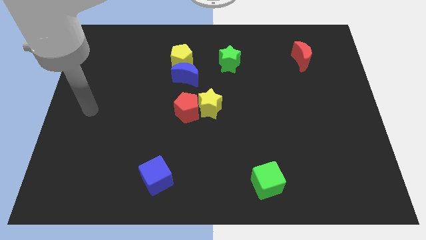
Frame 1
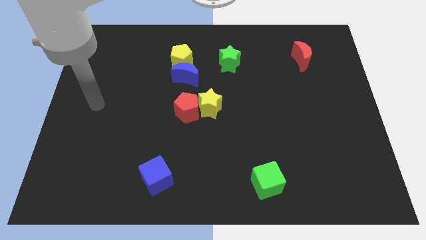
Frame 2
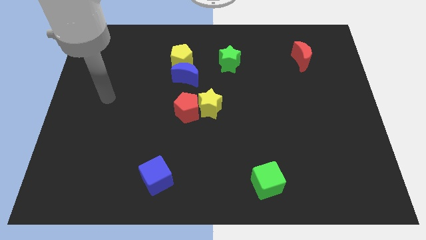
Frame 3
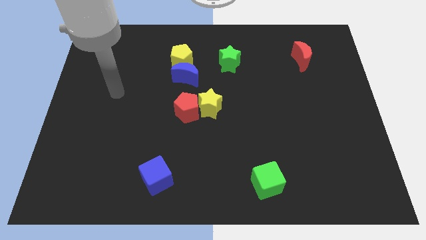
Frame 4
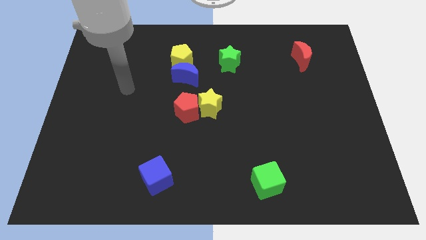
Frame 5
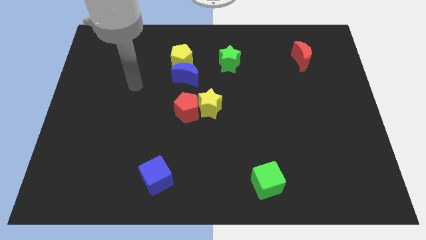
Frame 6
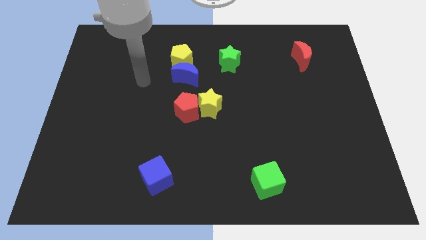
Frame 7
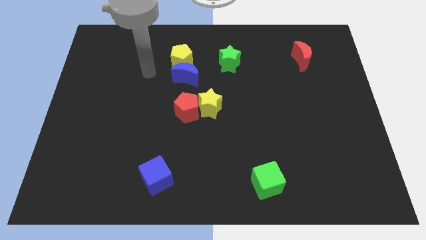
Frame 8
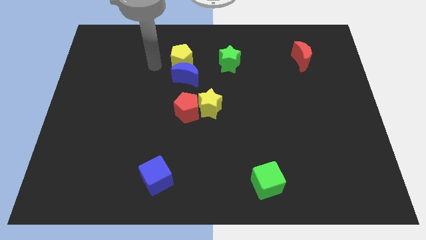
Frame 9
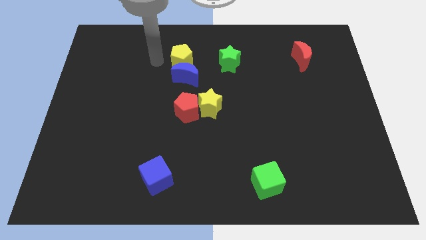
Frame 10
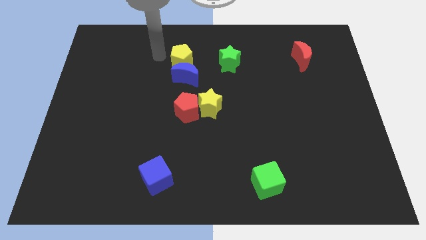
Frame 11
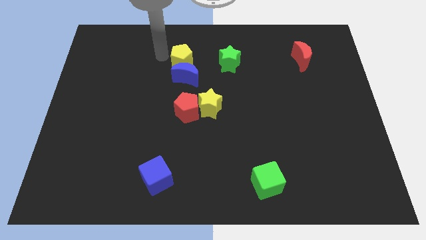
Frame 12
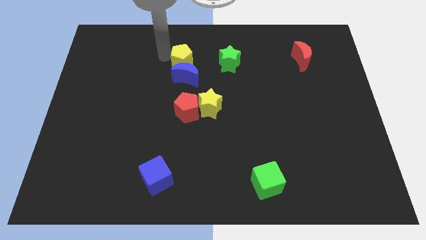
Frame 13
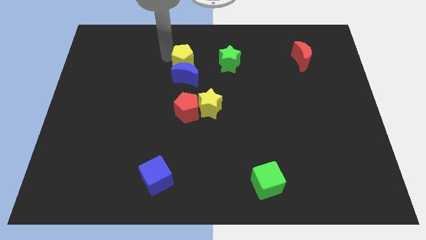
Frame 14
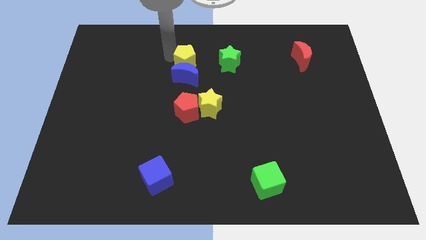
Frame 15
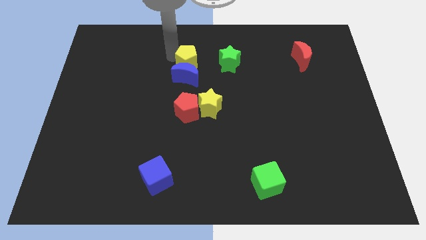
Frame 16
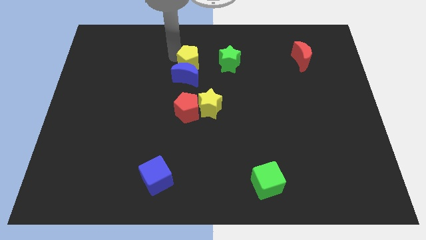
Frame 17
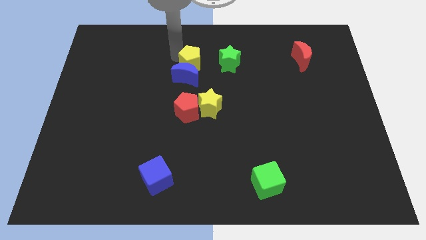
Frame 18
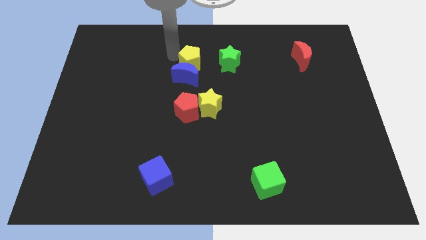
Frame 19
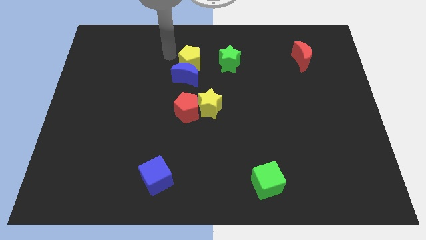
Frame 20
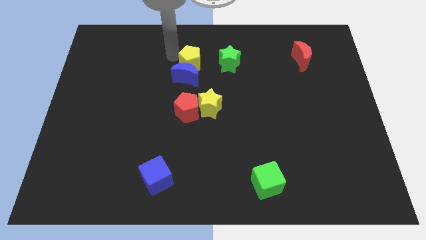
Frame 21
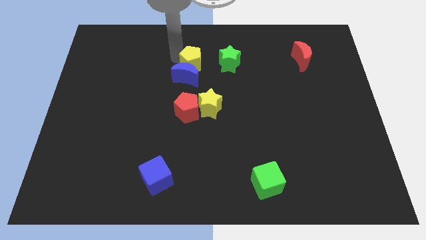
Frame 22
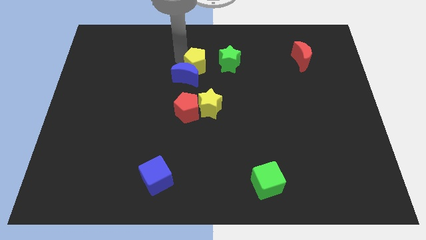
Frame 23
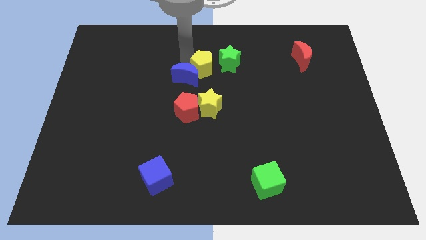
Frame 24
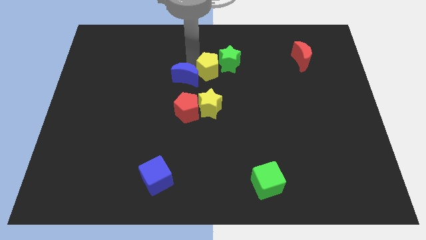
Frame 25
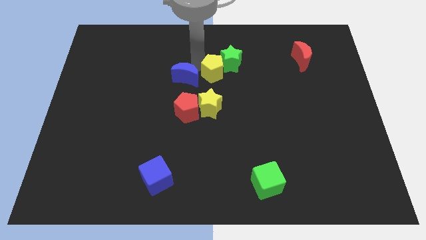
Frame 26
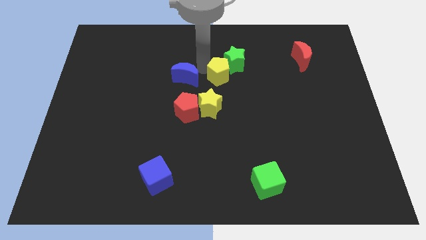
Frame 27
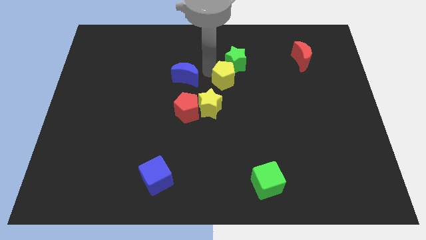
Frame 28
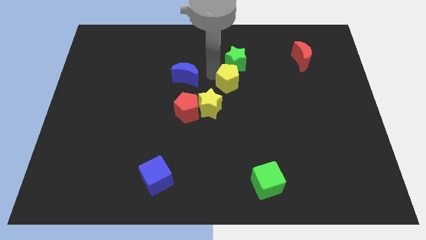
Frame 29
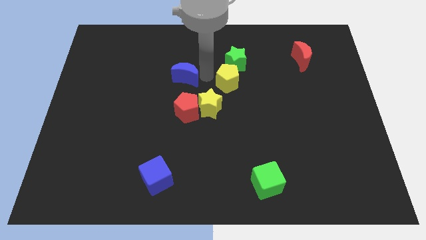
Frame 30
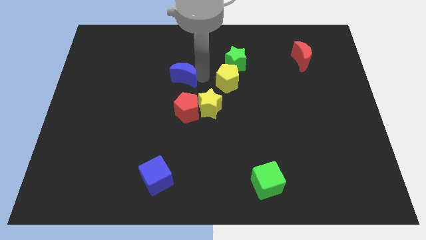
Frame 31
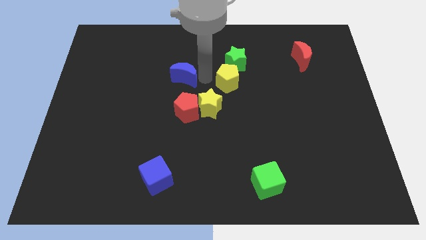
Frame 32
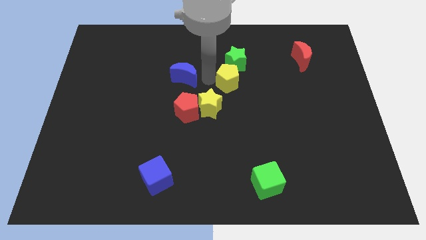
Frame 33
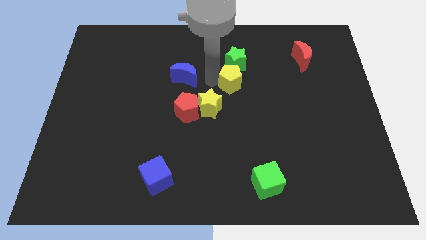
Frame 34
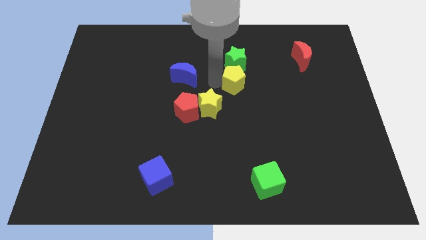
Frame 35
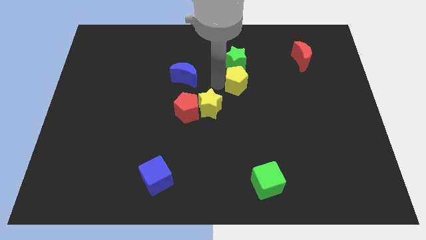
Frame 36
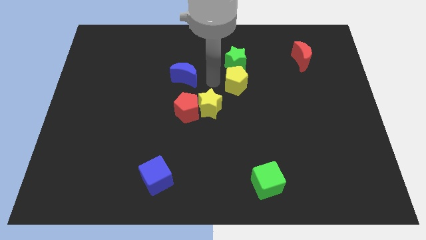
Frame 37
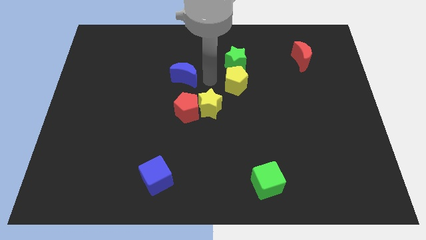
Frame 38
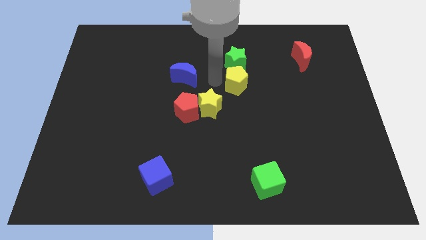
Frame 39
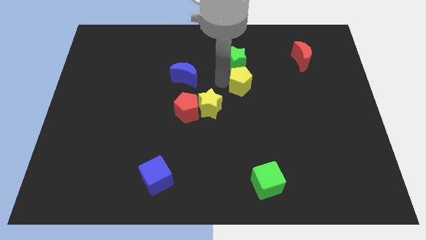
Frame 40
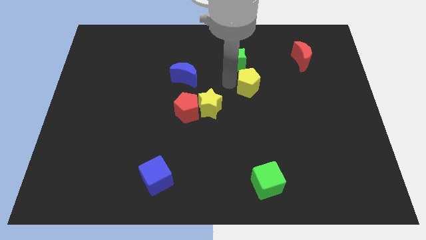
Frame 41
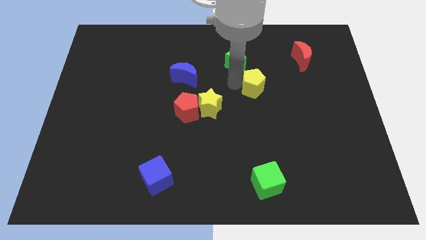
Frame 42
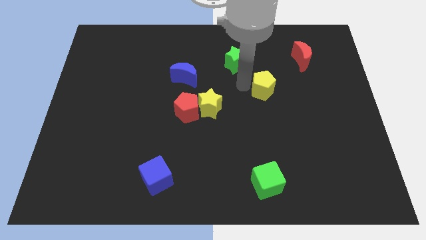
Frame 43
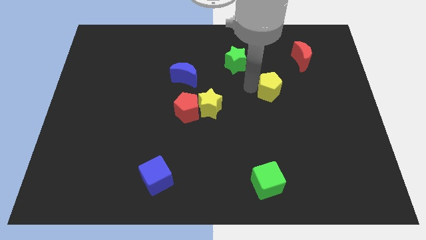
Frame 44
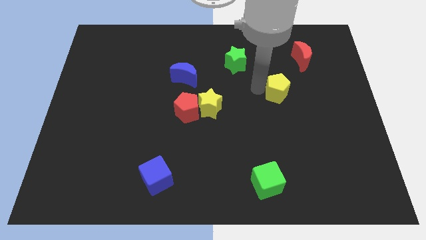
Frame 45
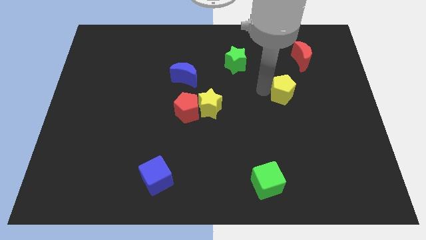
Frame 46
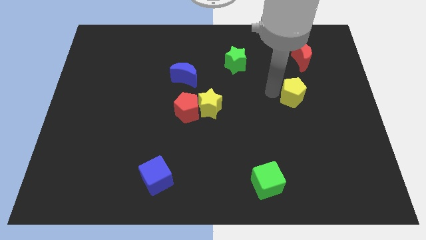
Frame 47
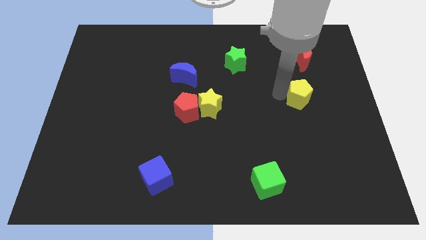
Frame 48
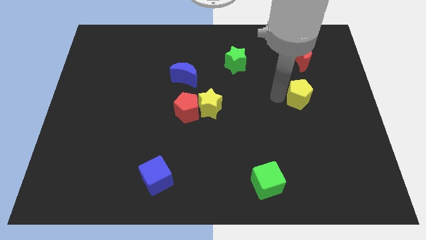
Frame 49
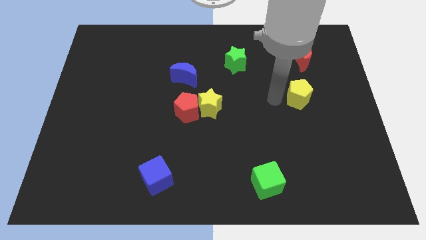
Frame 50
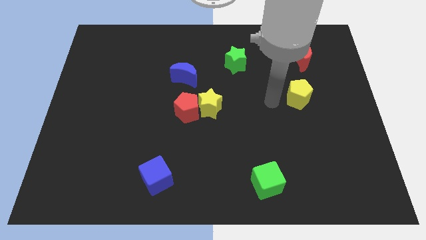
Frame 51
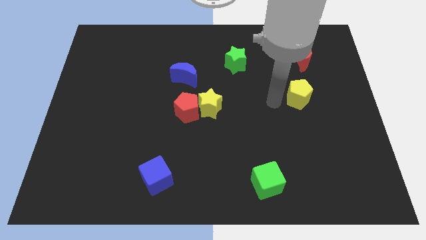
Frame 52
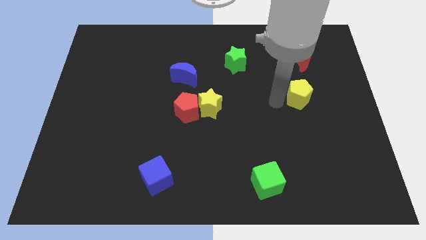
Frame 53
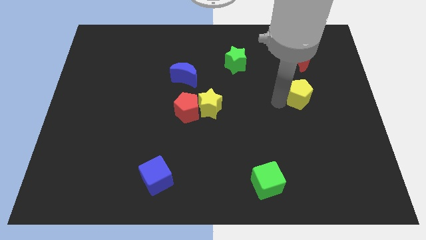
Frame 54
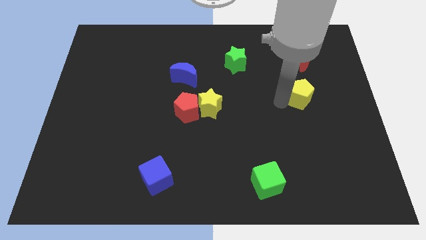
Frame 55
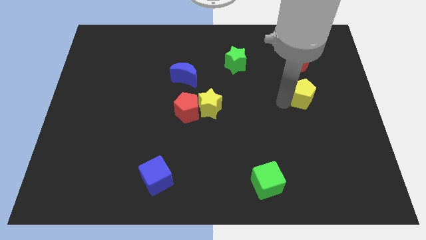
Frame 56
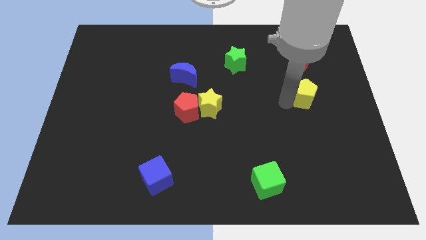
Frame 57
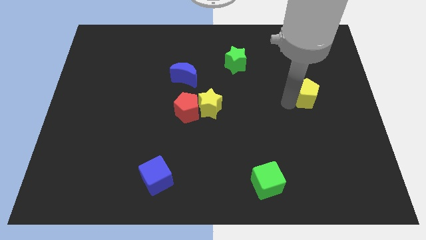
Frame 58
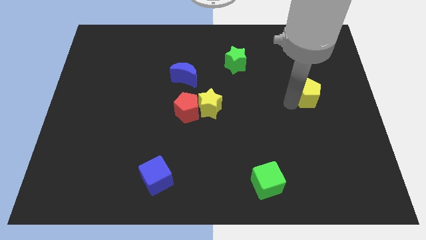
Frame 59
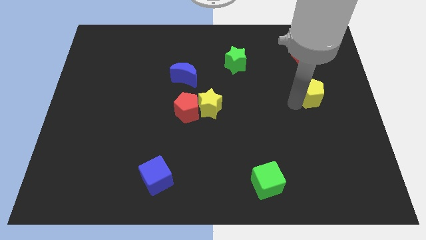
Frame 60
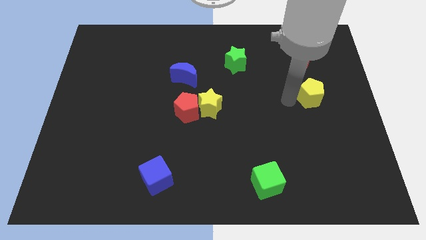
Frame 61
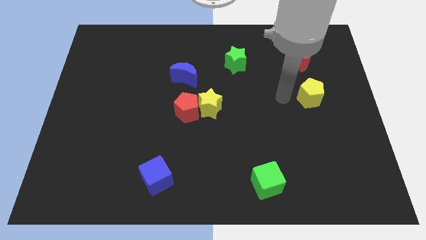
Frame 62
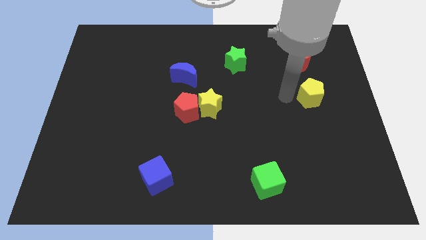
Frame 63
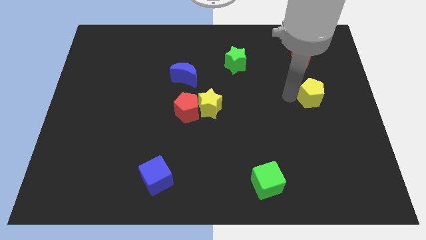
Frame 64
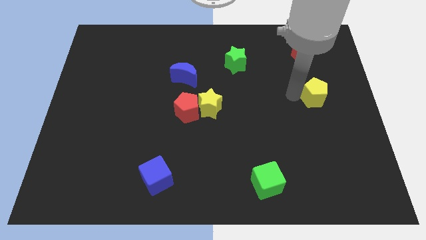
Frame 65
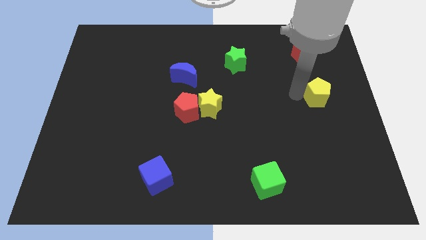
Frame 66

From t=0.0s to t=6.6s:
put the yellow pentagon to the center right
